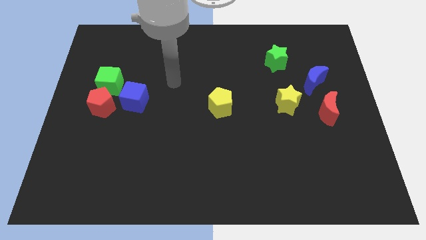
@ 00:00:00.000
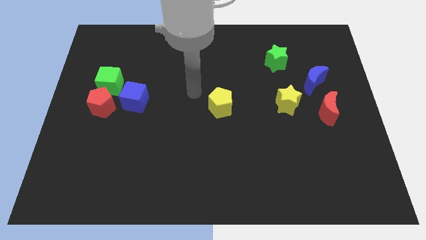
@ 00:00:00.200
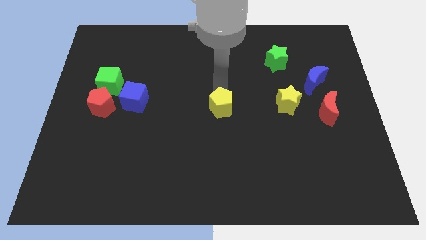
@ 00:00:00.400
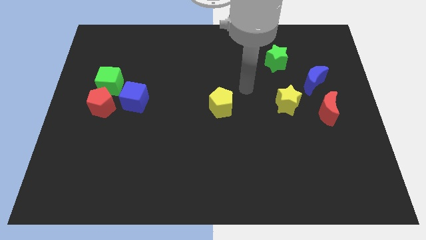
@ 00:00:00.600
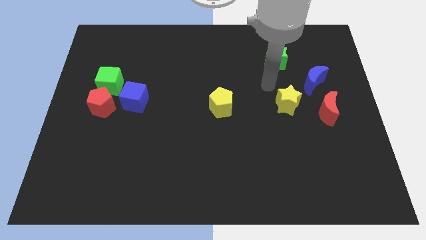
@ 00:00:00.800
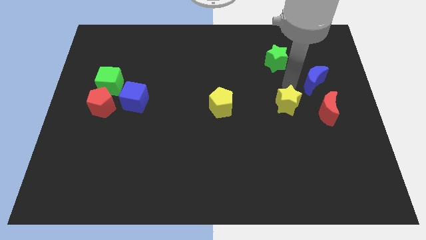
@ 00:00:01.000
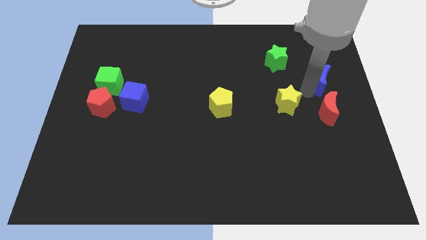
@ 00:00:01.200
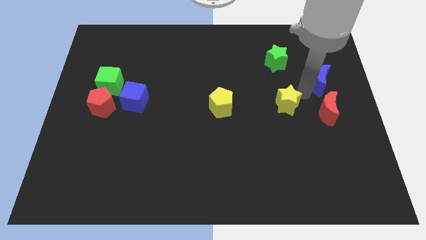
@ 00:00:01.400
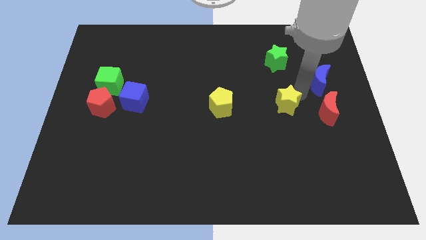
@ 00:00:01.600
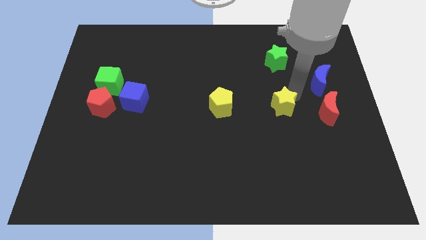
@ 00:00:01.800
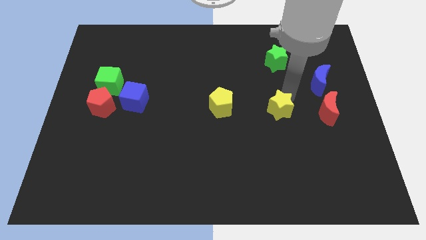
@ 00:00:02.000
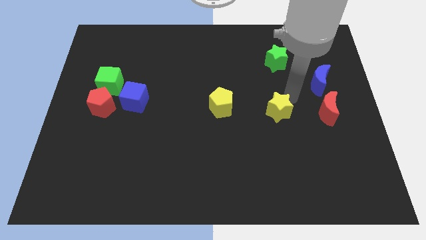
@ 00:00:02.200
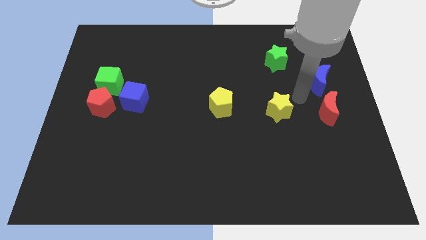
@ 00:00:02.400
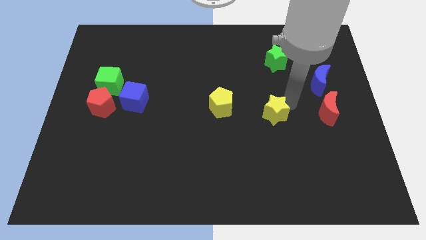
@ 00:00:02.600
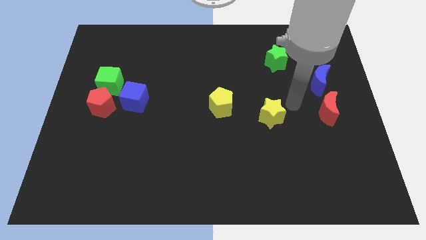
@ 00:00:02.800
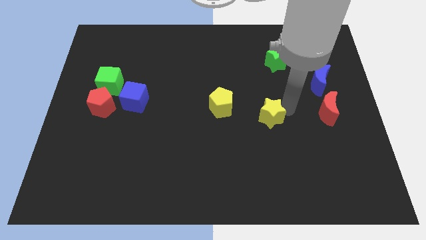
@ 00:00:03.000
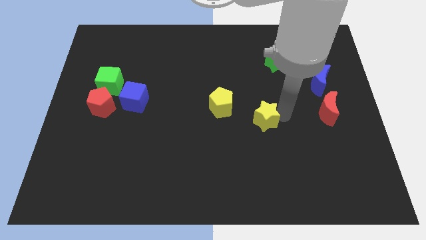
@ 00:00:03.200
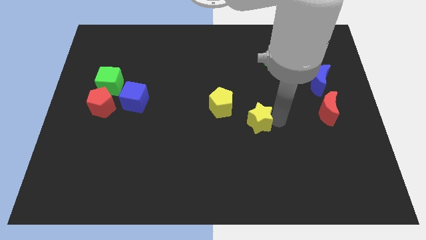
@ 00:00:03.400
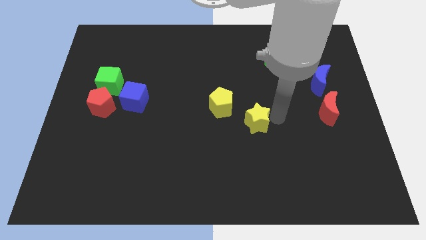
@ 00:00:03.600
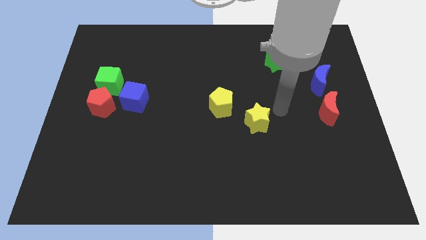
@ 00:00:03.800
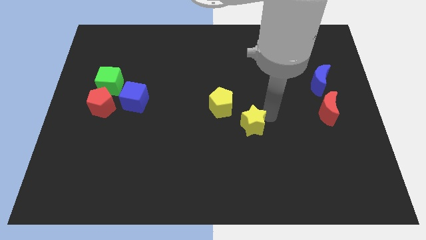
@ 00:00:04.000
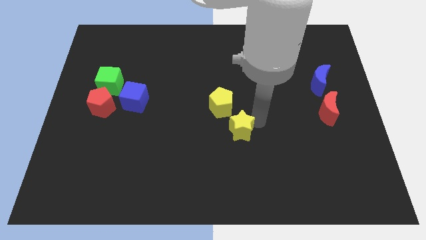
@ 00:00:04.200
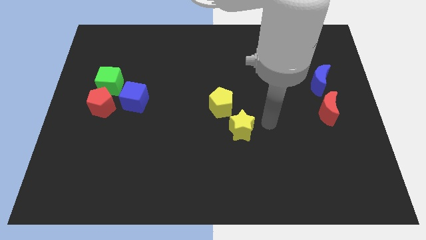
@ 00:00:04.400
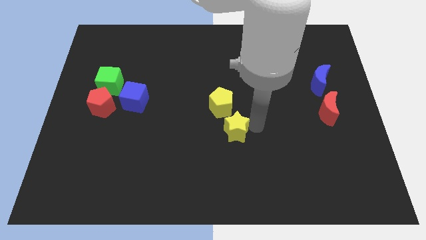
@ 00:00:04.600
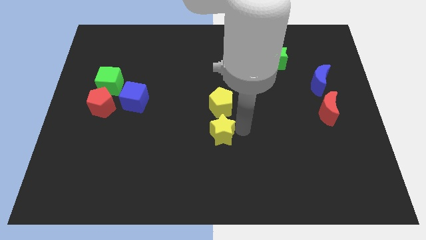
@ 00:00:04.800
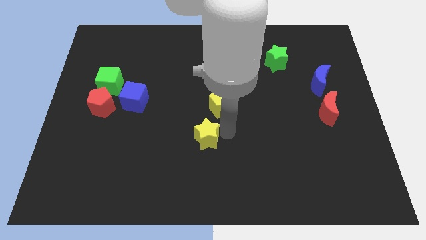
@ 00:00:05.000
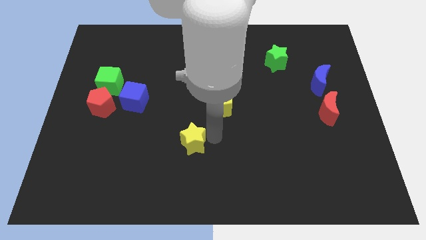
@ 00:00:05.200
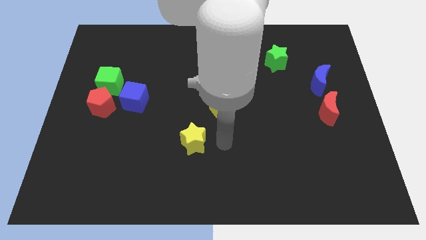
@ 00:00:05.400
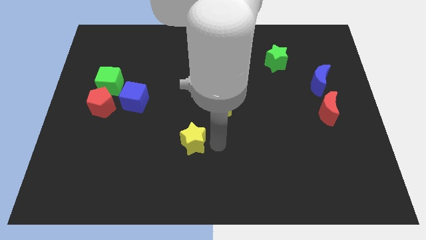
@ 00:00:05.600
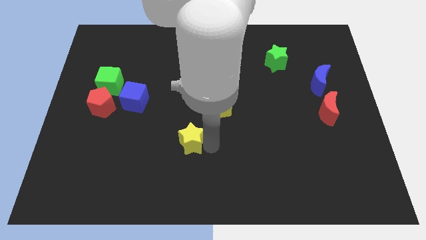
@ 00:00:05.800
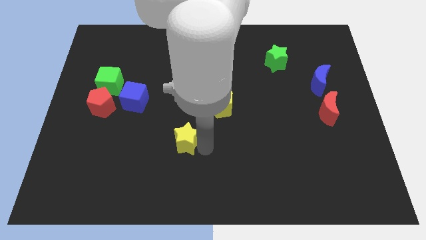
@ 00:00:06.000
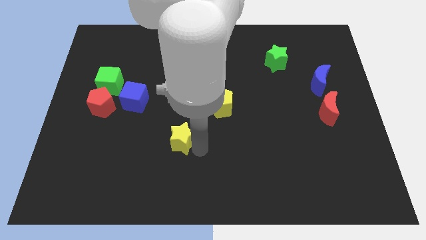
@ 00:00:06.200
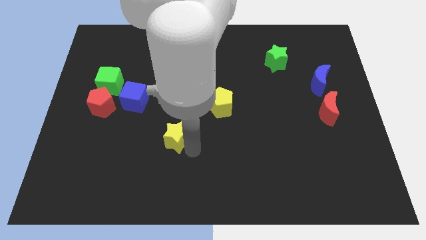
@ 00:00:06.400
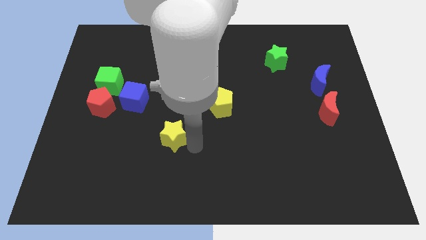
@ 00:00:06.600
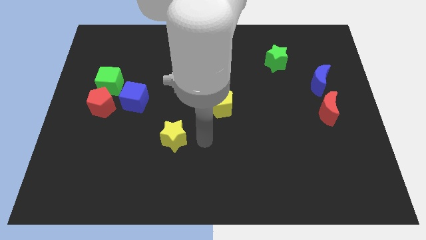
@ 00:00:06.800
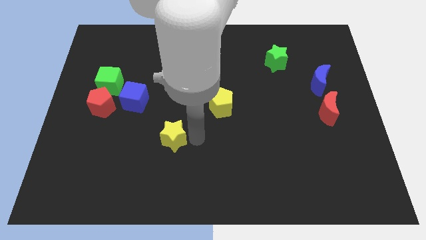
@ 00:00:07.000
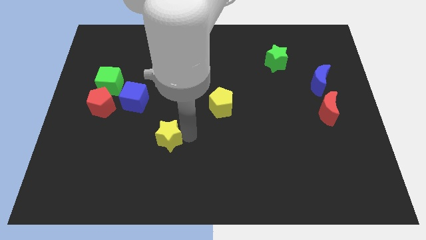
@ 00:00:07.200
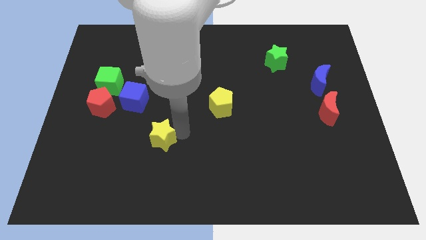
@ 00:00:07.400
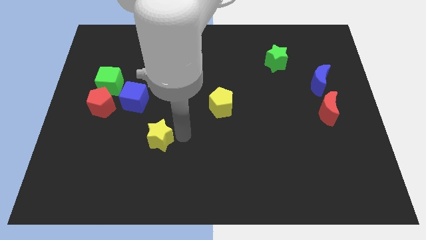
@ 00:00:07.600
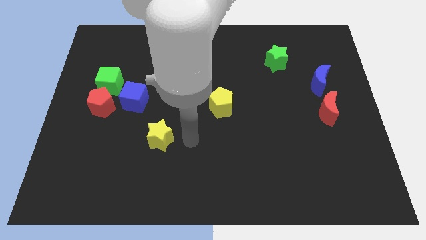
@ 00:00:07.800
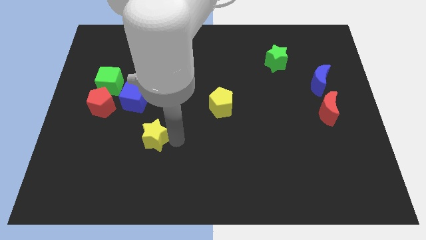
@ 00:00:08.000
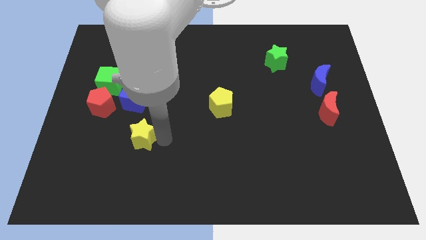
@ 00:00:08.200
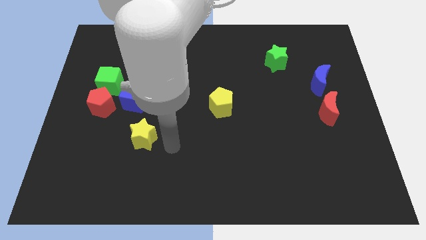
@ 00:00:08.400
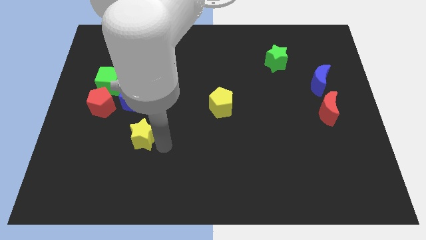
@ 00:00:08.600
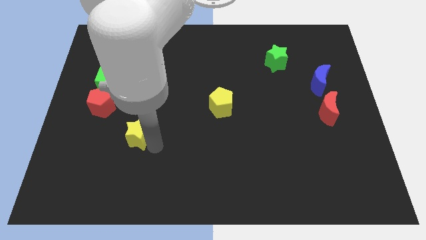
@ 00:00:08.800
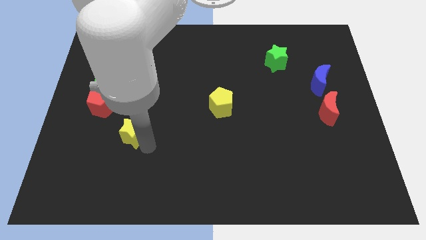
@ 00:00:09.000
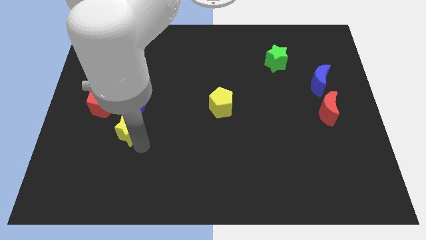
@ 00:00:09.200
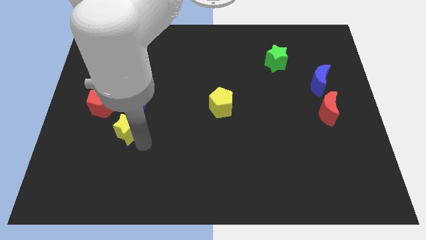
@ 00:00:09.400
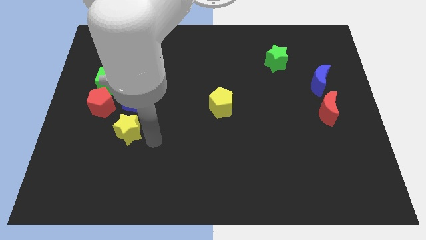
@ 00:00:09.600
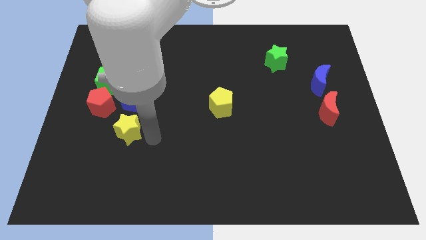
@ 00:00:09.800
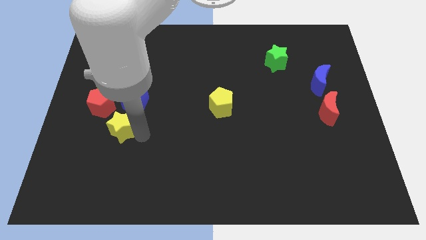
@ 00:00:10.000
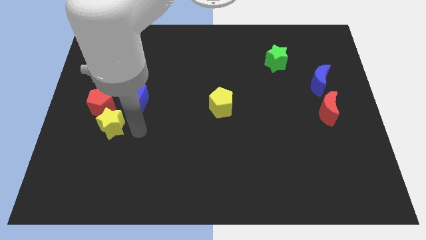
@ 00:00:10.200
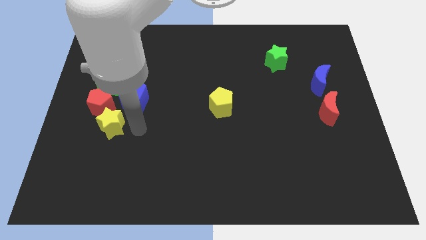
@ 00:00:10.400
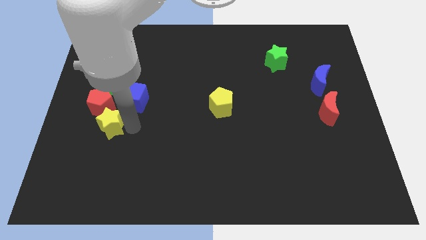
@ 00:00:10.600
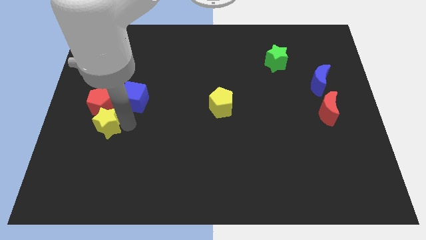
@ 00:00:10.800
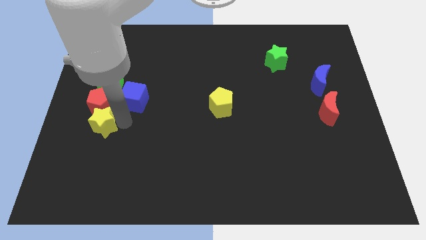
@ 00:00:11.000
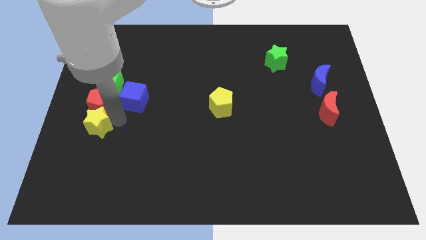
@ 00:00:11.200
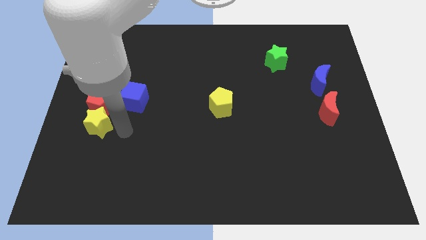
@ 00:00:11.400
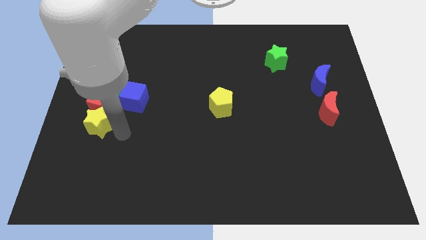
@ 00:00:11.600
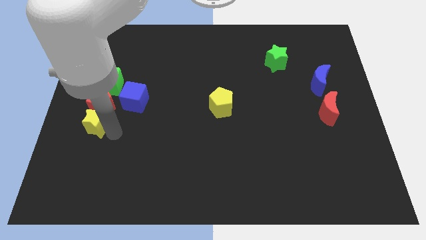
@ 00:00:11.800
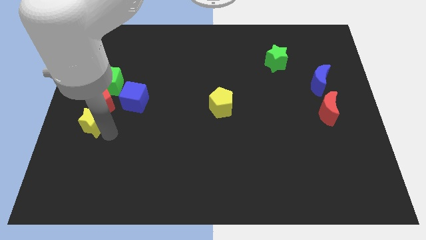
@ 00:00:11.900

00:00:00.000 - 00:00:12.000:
slide the yellow star to the left side
